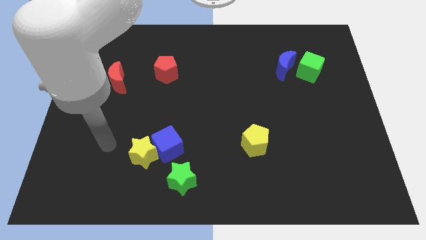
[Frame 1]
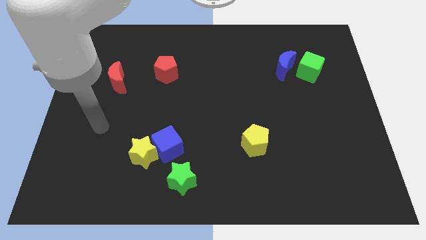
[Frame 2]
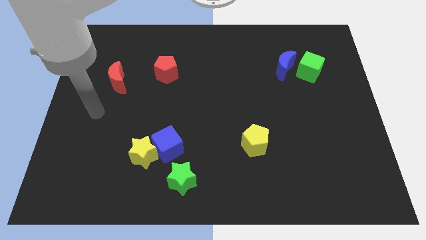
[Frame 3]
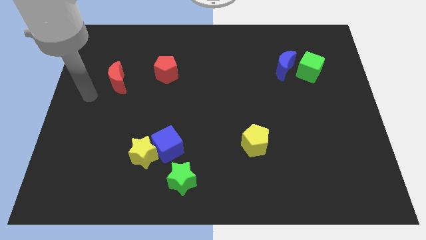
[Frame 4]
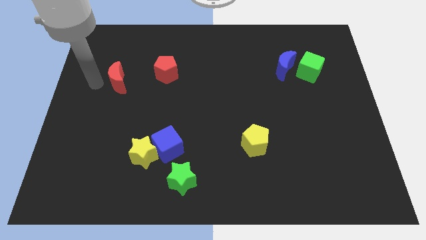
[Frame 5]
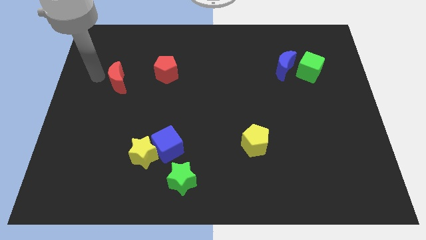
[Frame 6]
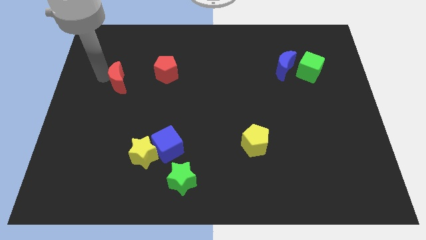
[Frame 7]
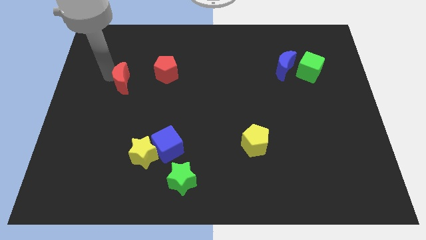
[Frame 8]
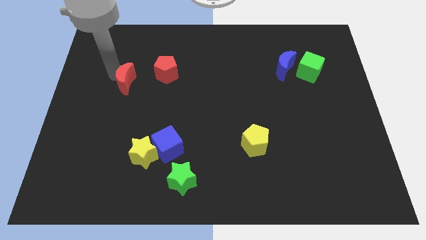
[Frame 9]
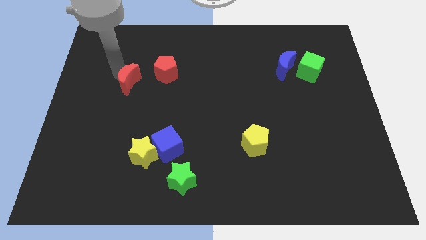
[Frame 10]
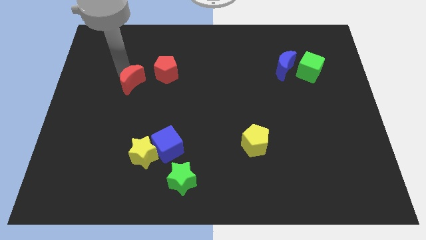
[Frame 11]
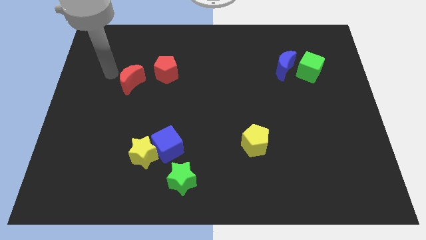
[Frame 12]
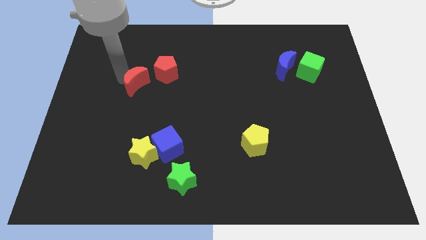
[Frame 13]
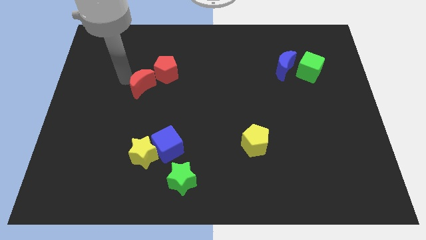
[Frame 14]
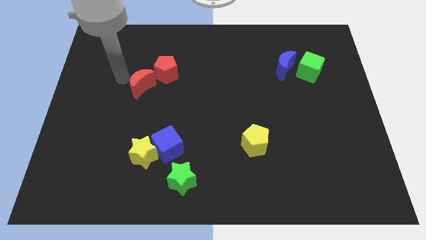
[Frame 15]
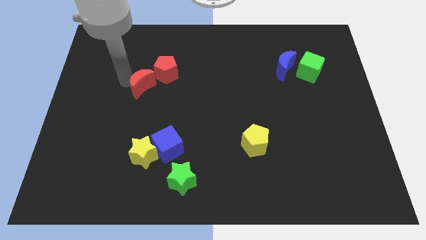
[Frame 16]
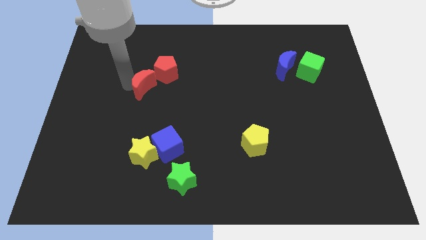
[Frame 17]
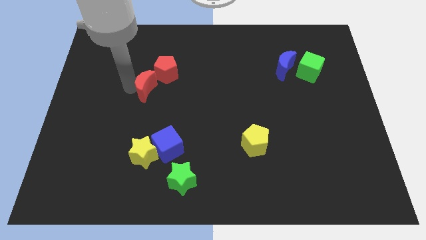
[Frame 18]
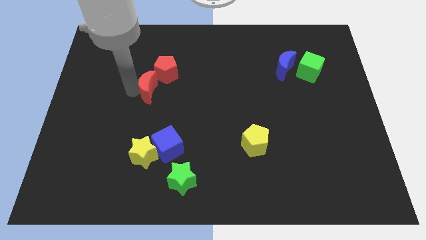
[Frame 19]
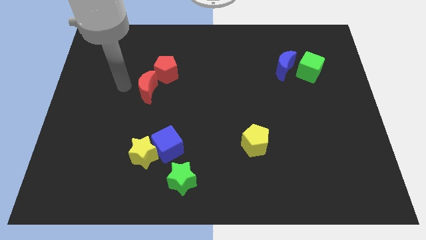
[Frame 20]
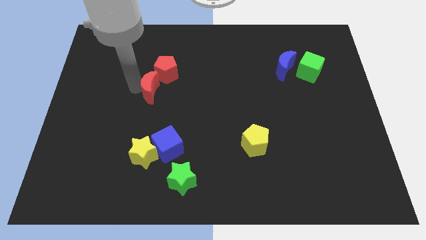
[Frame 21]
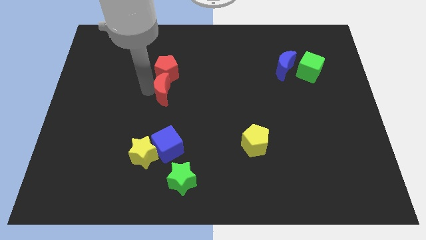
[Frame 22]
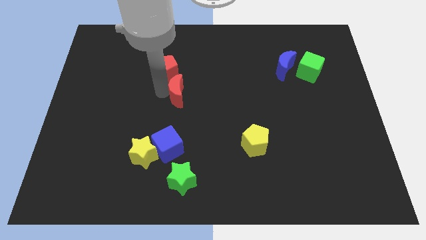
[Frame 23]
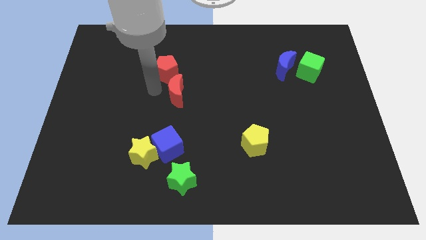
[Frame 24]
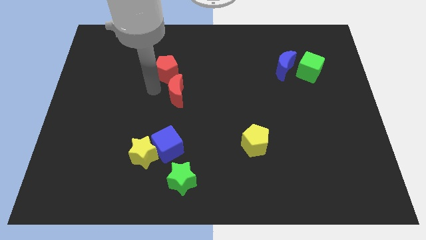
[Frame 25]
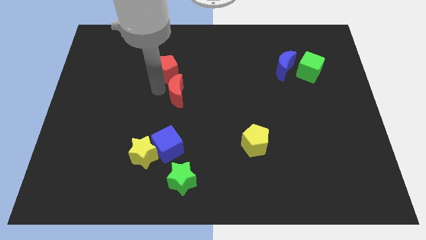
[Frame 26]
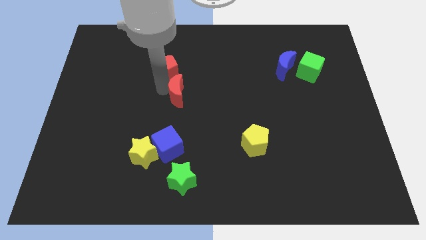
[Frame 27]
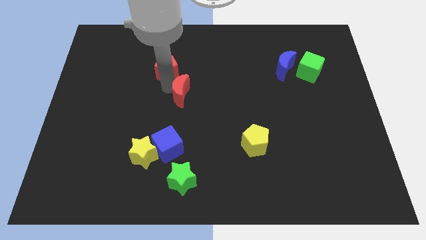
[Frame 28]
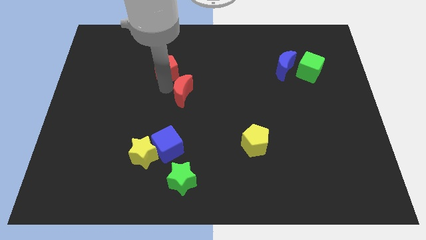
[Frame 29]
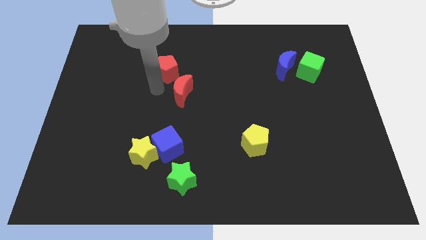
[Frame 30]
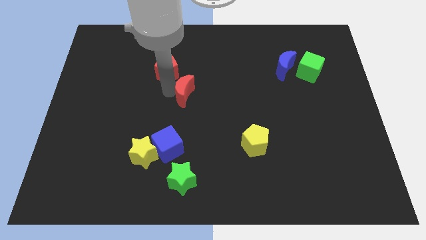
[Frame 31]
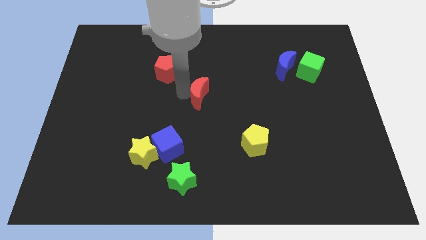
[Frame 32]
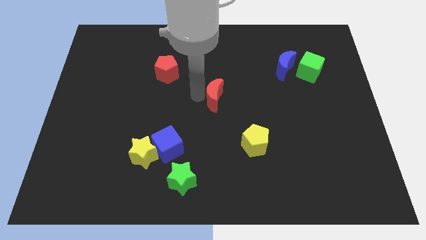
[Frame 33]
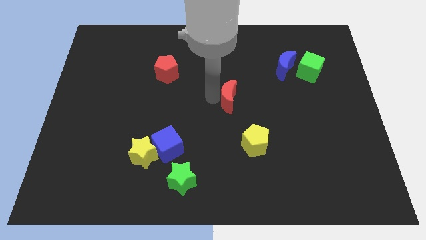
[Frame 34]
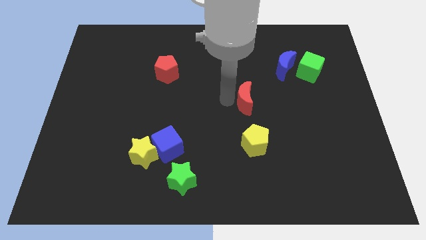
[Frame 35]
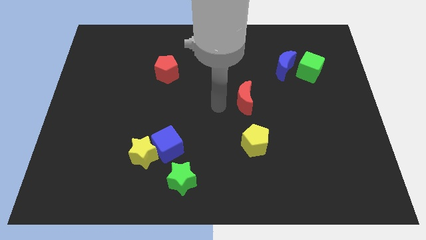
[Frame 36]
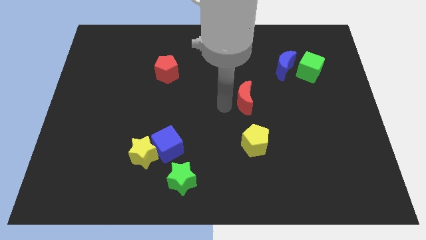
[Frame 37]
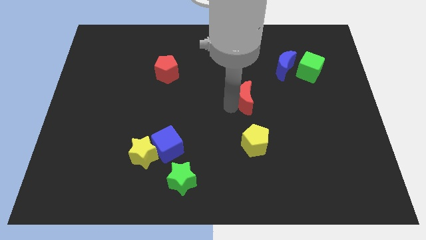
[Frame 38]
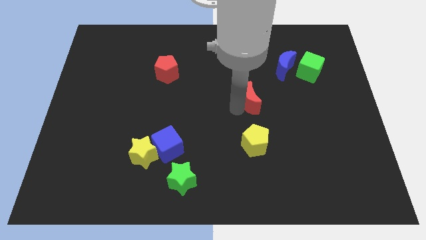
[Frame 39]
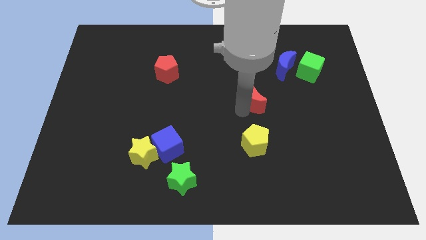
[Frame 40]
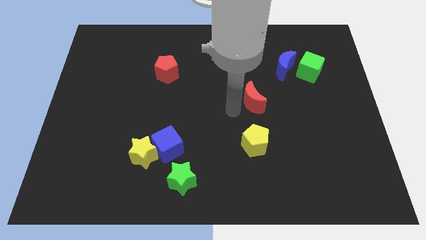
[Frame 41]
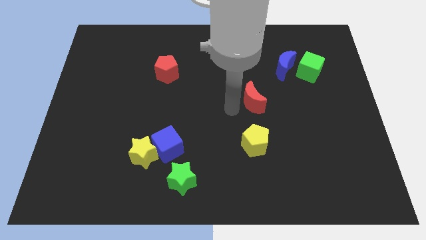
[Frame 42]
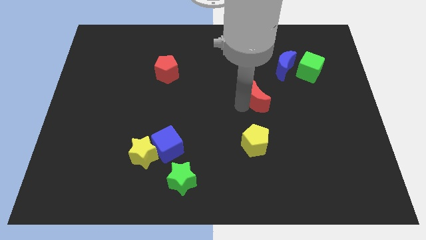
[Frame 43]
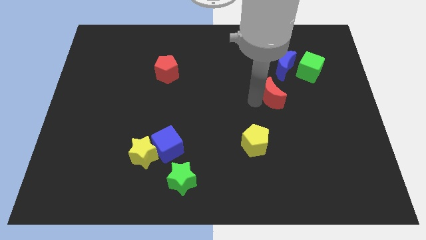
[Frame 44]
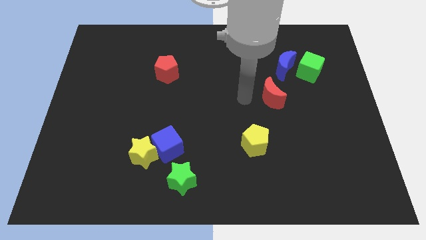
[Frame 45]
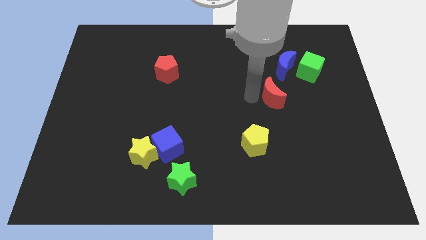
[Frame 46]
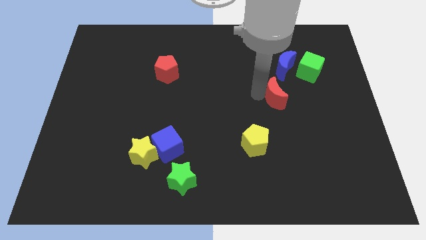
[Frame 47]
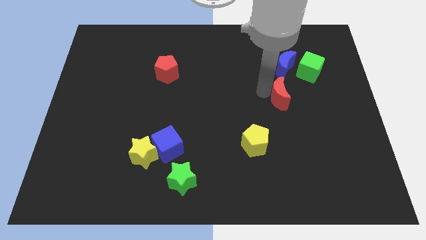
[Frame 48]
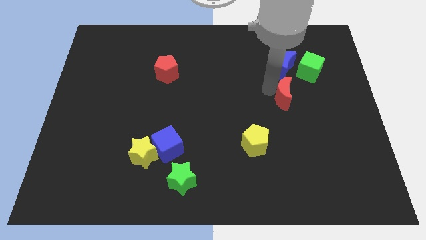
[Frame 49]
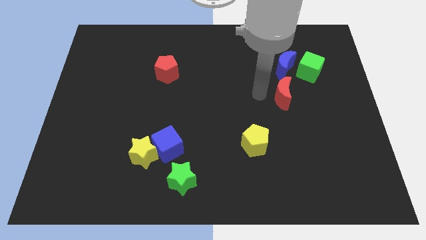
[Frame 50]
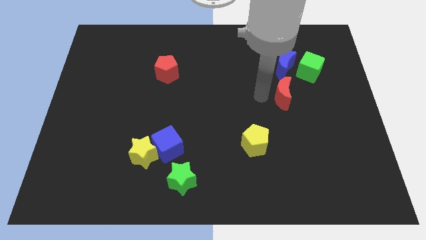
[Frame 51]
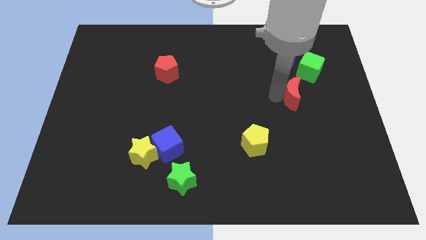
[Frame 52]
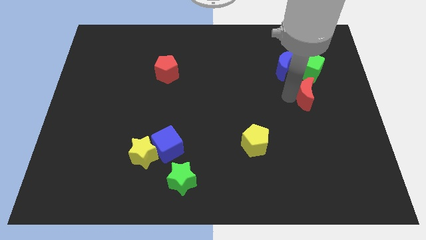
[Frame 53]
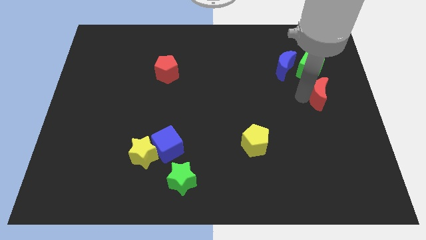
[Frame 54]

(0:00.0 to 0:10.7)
slide the red moon to the right side of the board
